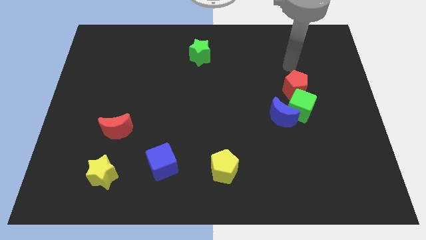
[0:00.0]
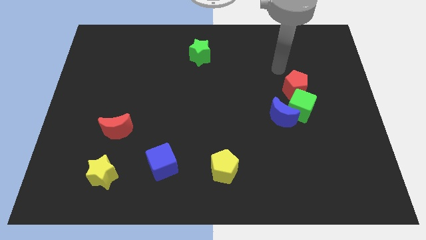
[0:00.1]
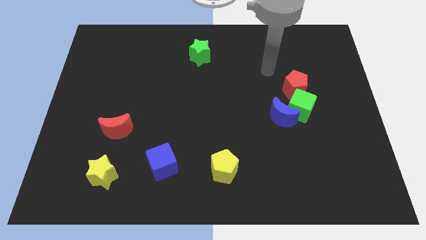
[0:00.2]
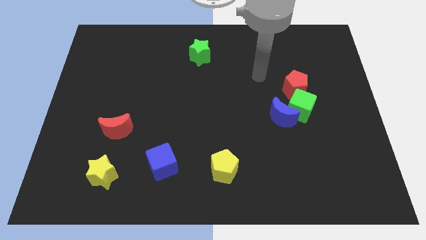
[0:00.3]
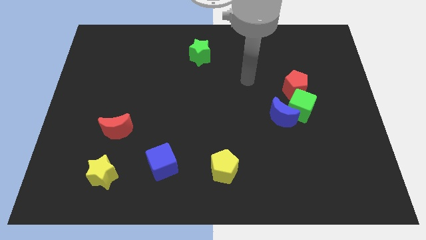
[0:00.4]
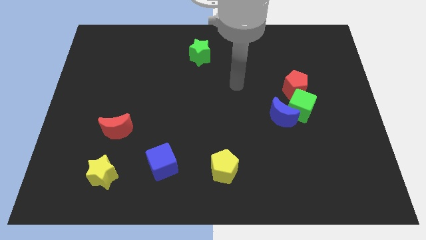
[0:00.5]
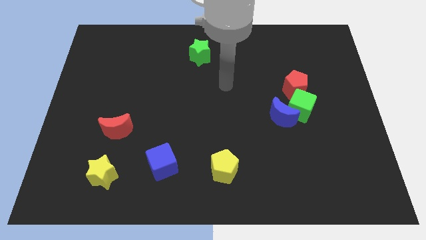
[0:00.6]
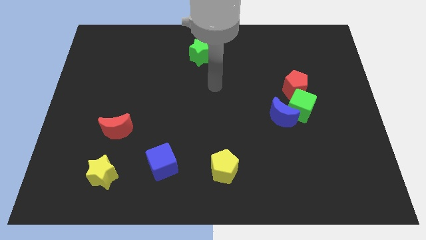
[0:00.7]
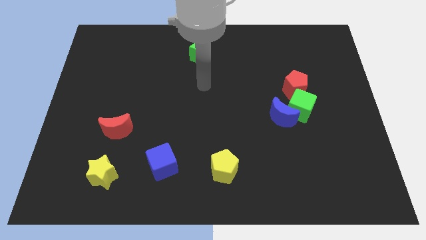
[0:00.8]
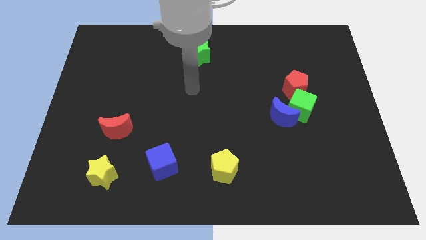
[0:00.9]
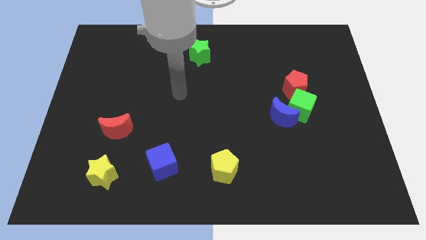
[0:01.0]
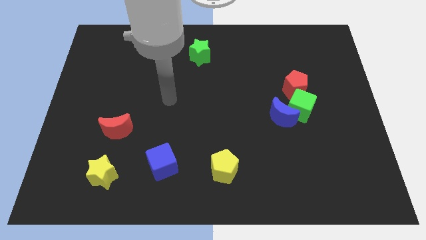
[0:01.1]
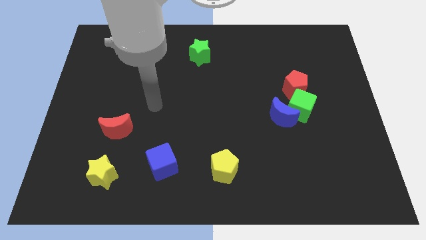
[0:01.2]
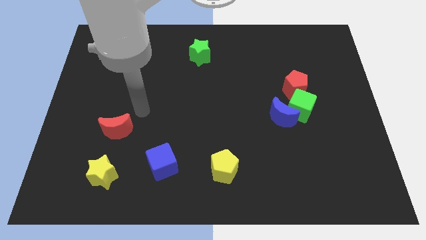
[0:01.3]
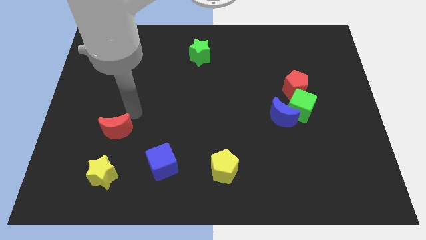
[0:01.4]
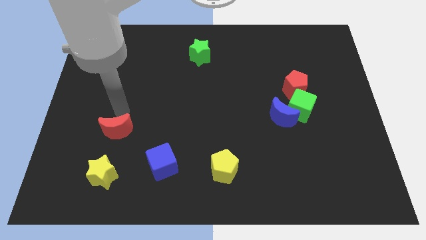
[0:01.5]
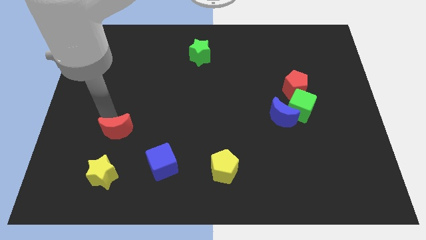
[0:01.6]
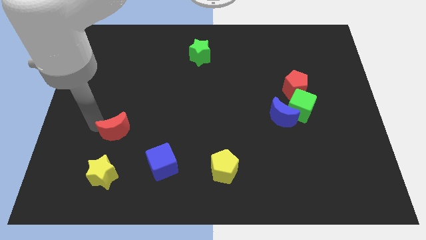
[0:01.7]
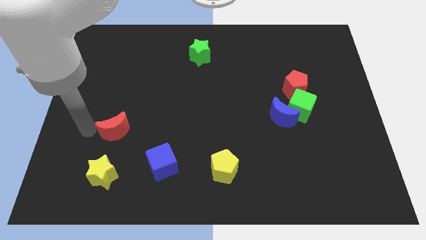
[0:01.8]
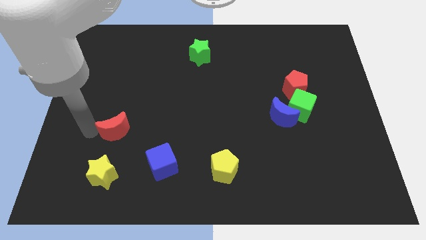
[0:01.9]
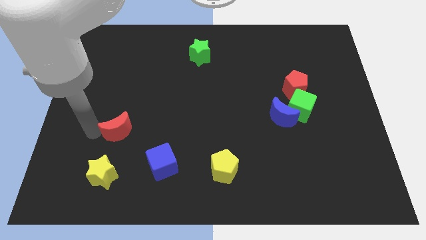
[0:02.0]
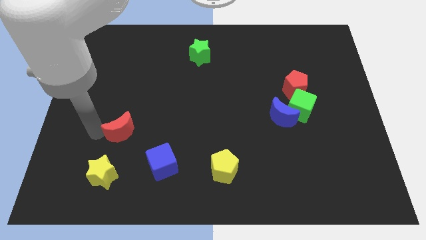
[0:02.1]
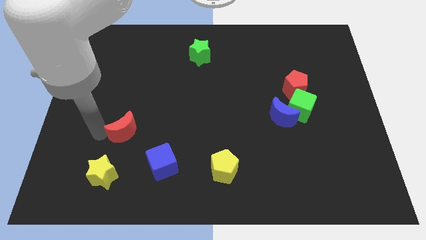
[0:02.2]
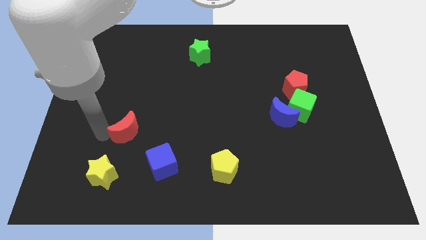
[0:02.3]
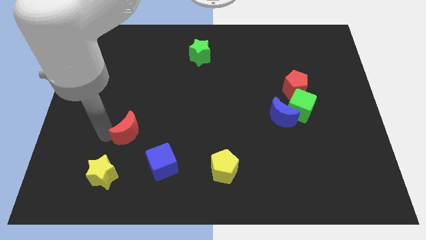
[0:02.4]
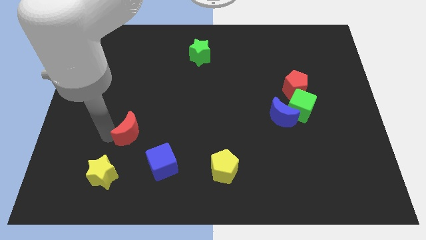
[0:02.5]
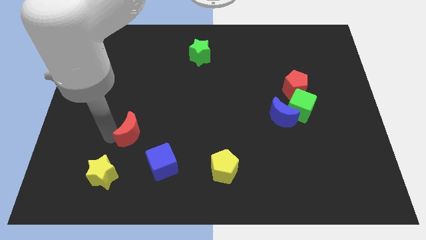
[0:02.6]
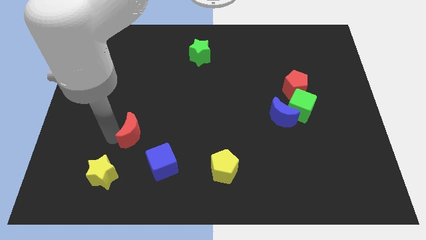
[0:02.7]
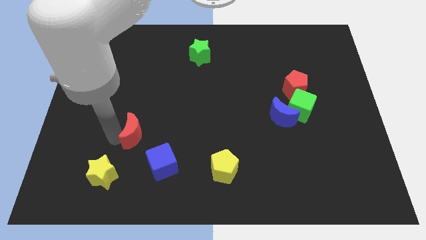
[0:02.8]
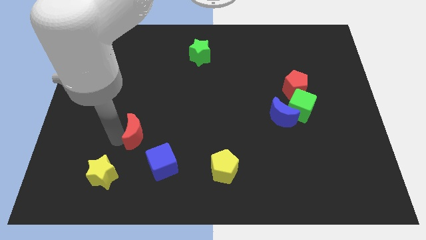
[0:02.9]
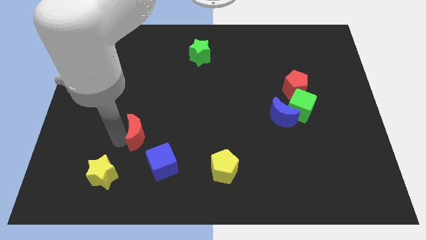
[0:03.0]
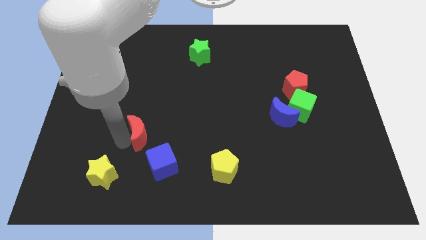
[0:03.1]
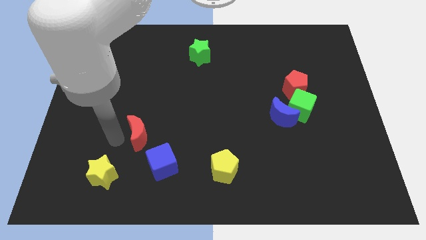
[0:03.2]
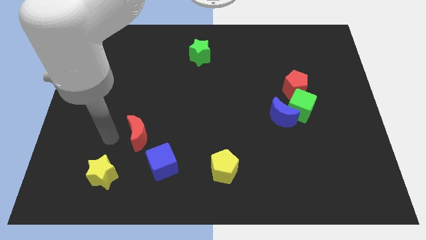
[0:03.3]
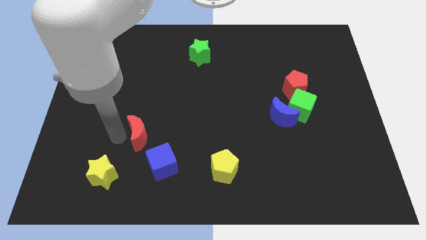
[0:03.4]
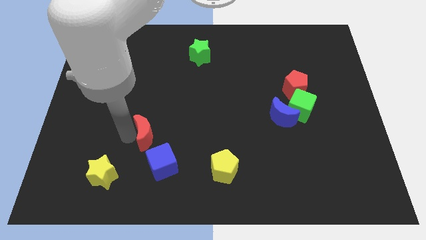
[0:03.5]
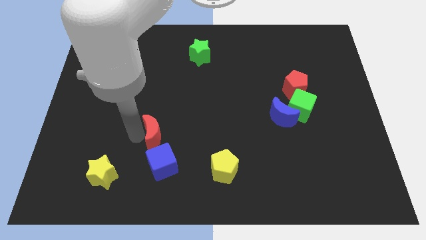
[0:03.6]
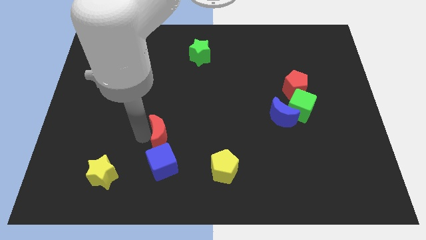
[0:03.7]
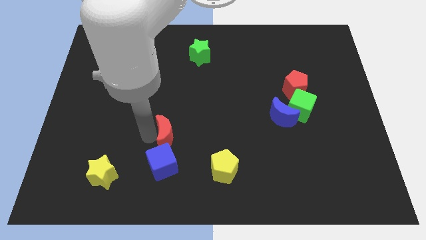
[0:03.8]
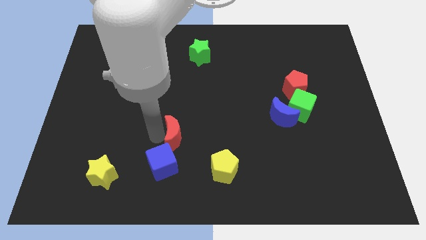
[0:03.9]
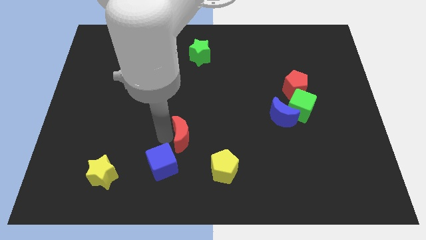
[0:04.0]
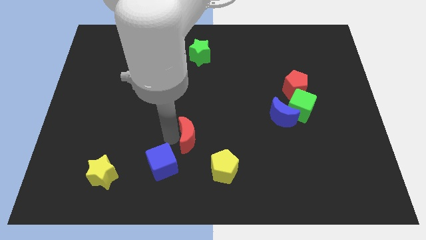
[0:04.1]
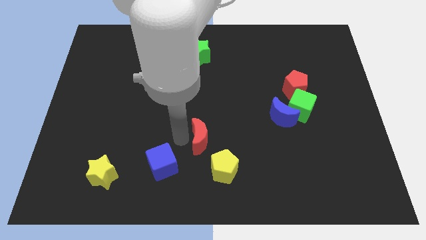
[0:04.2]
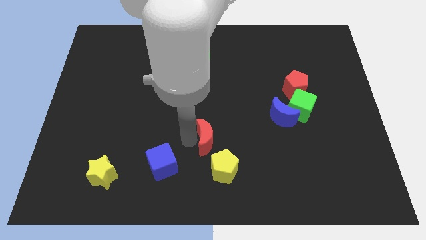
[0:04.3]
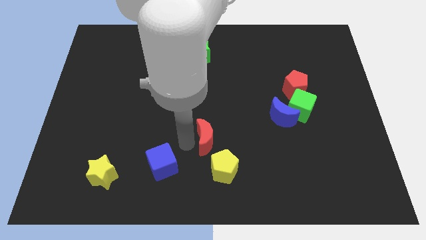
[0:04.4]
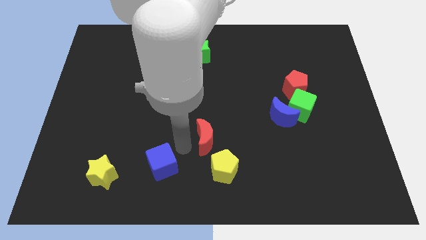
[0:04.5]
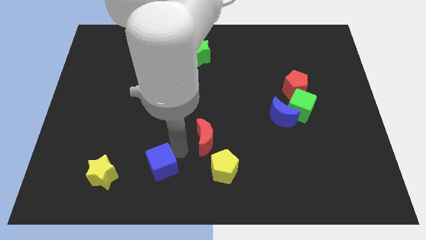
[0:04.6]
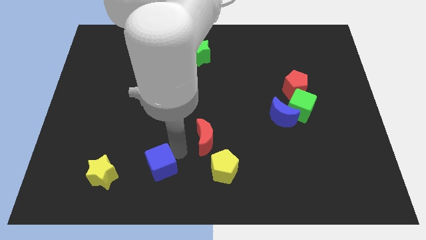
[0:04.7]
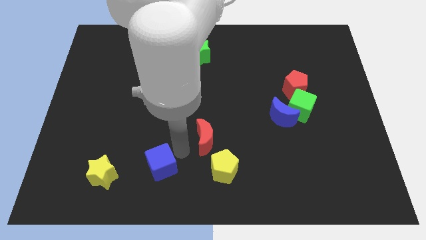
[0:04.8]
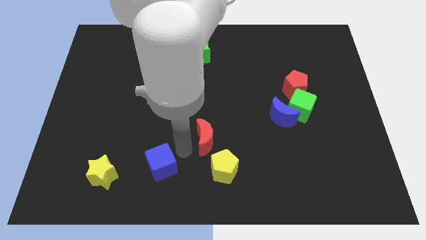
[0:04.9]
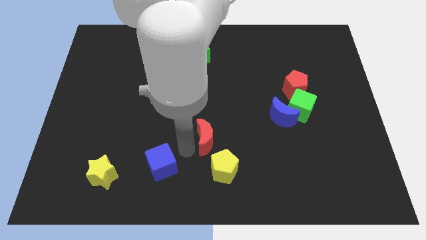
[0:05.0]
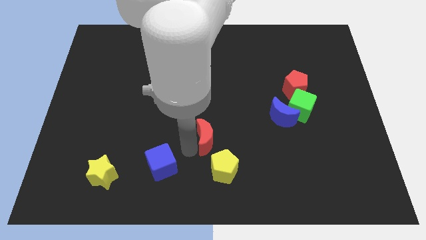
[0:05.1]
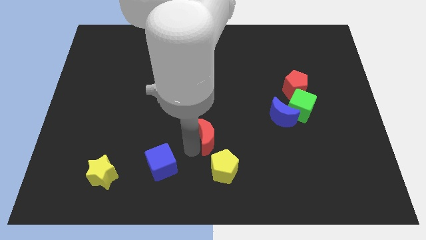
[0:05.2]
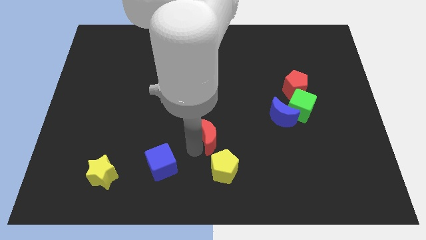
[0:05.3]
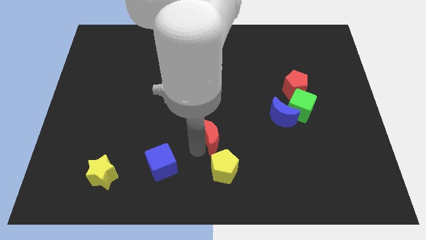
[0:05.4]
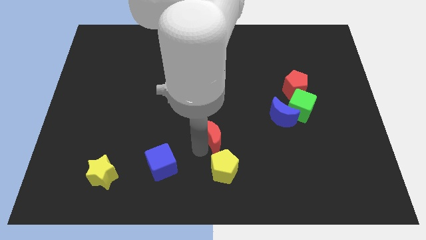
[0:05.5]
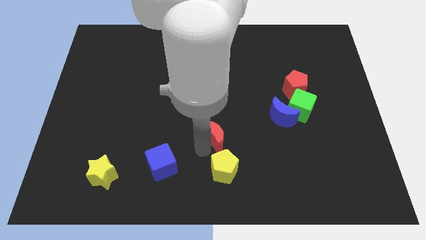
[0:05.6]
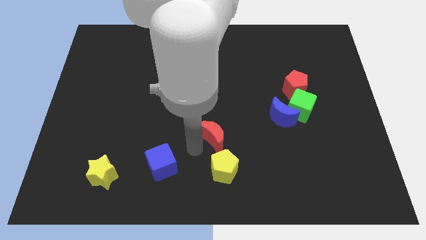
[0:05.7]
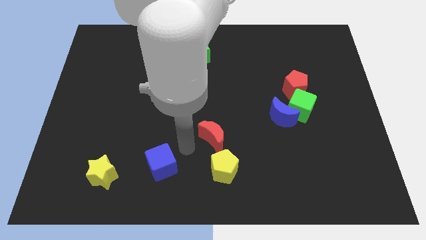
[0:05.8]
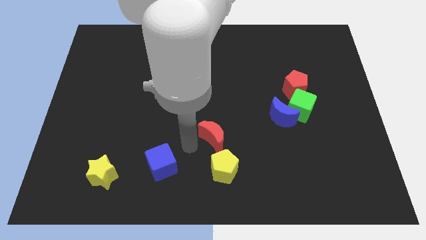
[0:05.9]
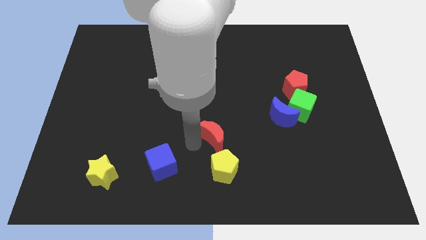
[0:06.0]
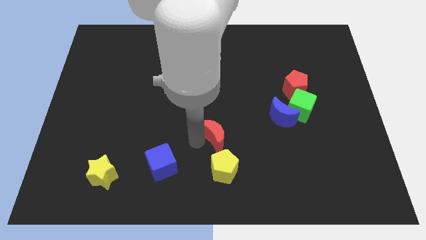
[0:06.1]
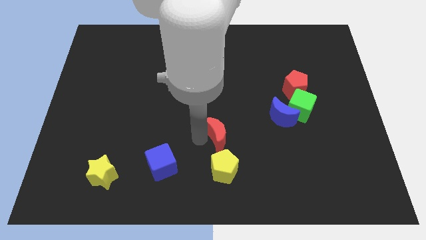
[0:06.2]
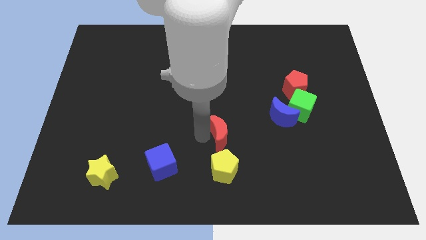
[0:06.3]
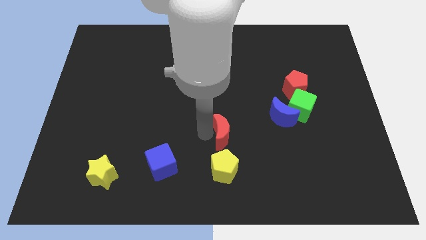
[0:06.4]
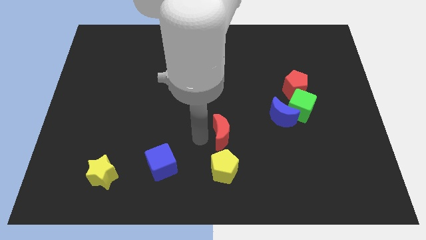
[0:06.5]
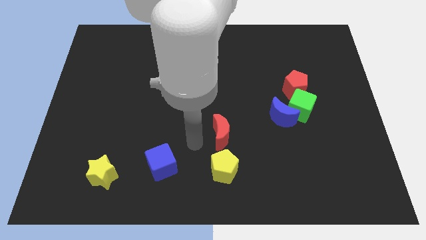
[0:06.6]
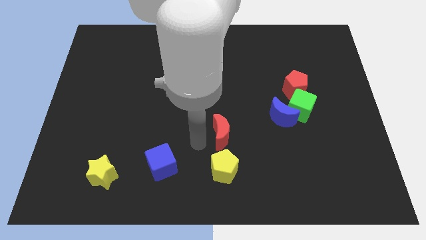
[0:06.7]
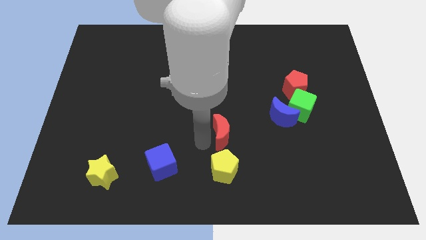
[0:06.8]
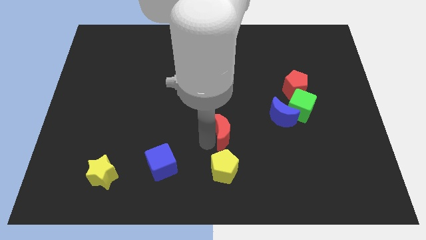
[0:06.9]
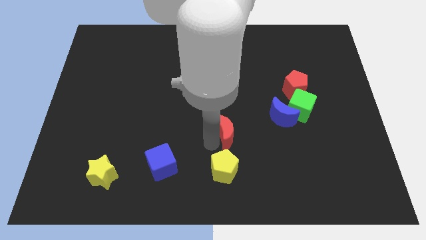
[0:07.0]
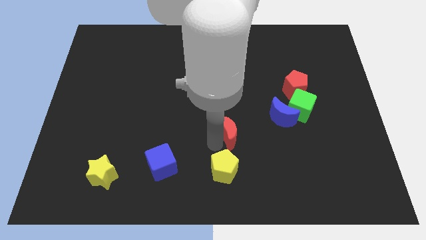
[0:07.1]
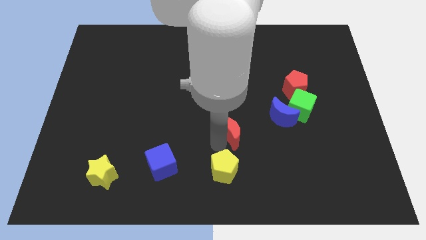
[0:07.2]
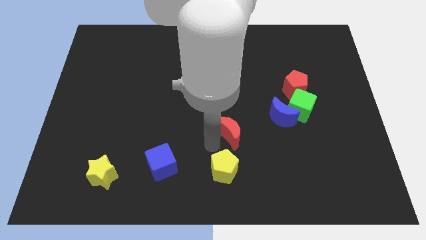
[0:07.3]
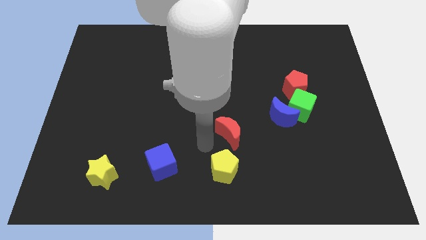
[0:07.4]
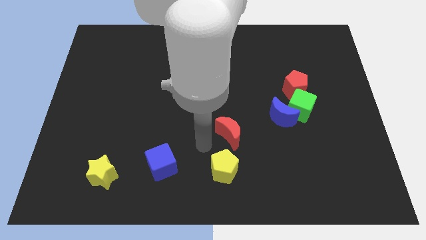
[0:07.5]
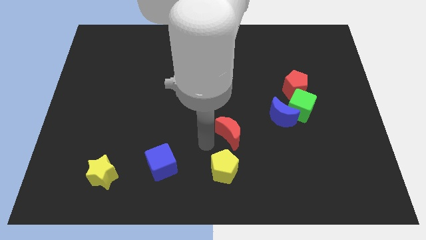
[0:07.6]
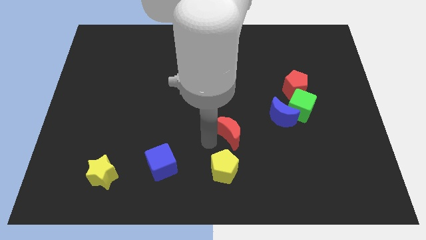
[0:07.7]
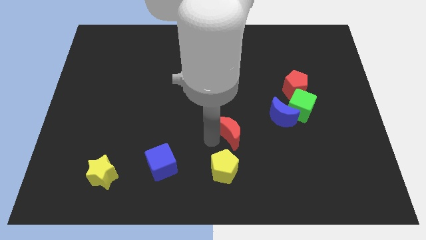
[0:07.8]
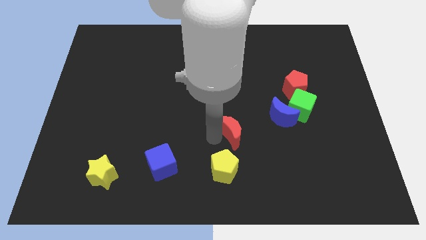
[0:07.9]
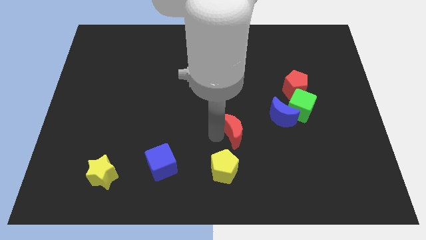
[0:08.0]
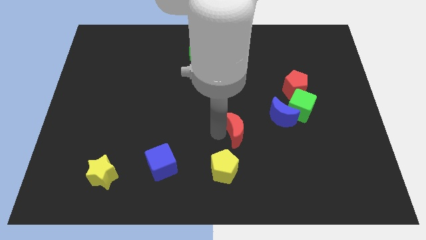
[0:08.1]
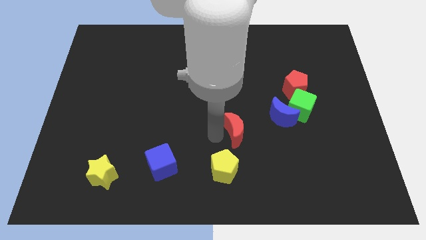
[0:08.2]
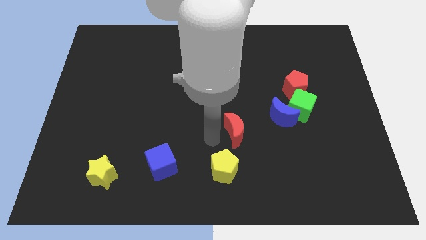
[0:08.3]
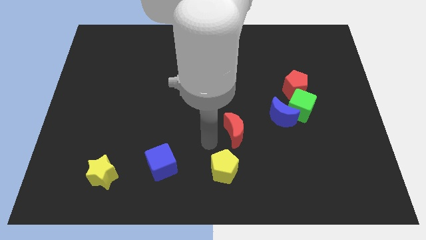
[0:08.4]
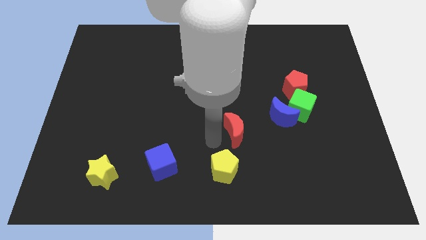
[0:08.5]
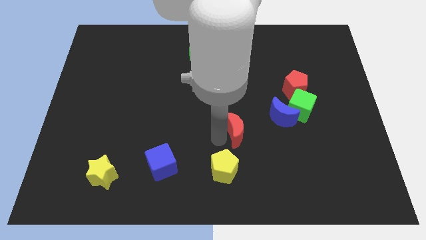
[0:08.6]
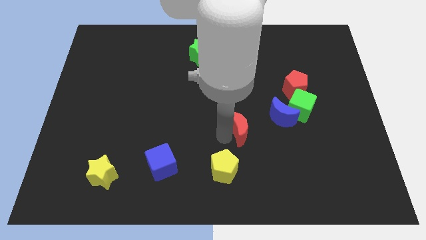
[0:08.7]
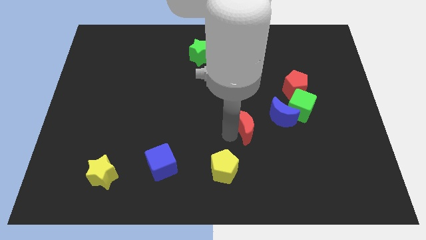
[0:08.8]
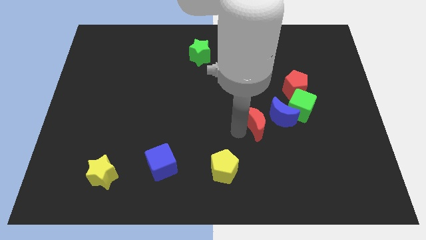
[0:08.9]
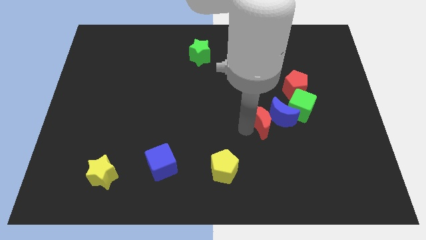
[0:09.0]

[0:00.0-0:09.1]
push the red moon towards the blue moon
